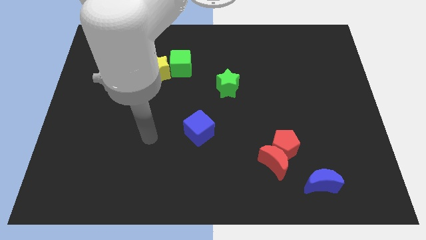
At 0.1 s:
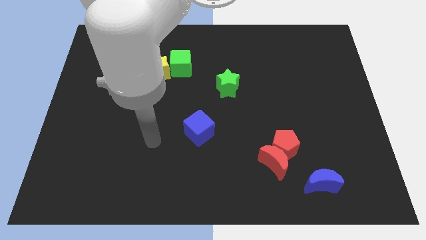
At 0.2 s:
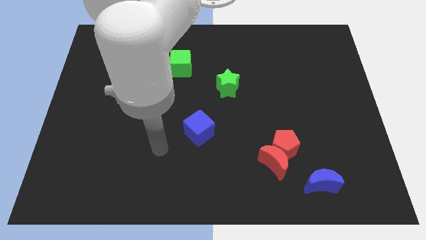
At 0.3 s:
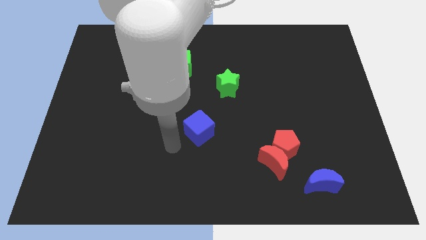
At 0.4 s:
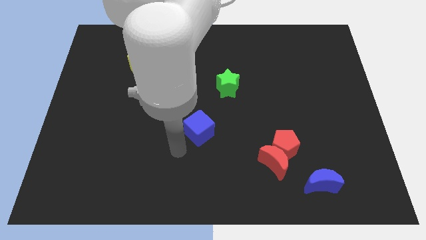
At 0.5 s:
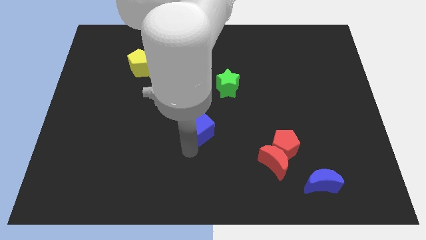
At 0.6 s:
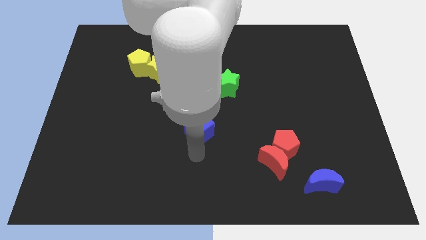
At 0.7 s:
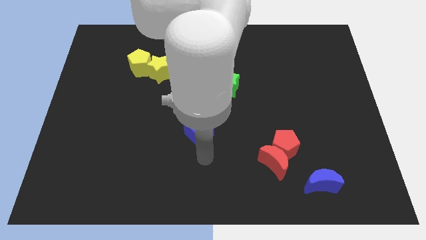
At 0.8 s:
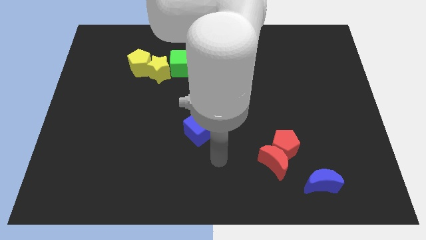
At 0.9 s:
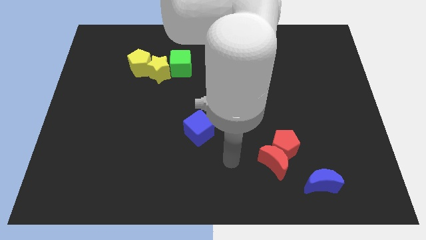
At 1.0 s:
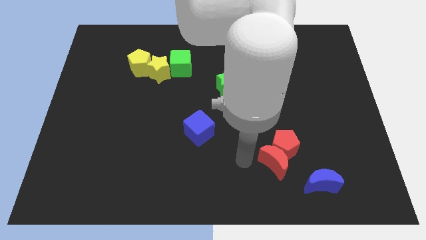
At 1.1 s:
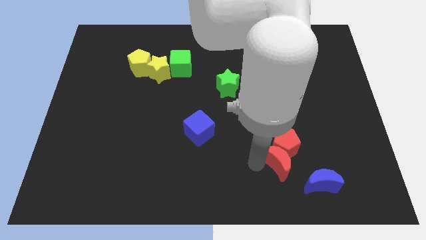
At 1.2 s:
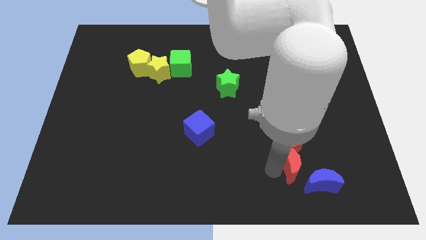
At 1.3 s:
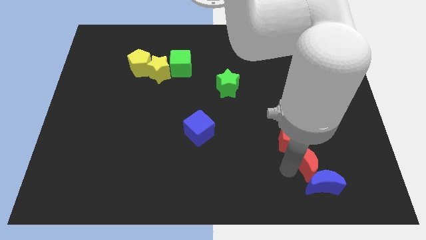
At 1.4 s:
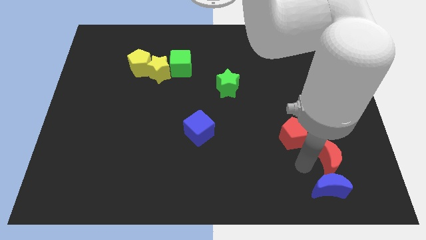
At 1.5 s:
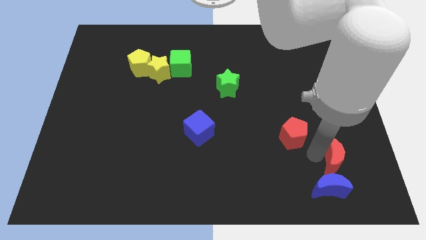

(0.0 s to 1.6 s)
pull the red pentagon apart from the red moon

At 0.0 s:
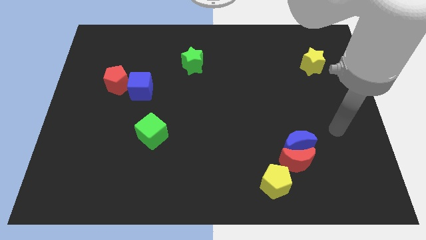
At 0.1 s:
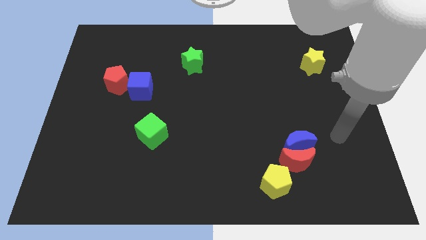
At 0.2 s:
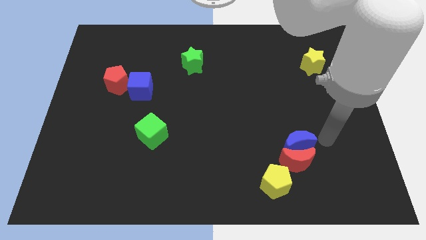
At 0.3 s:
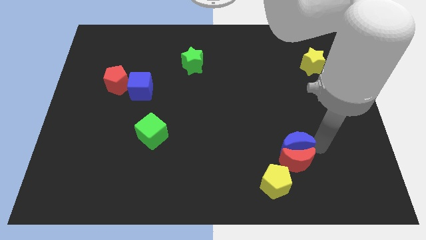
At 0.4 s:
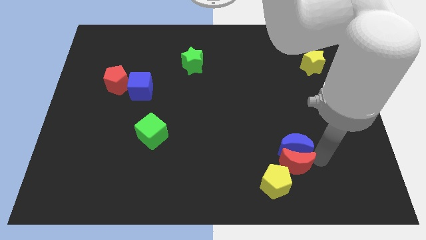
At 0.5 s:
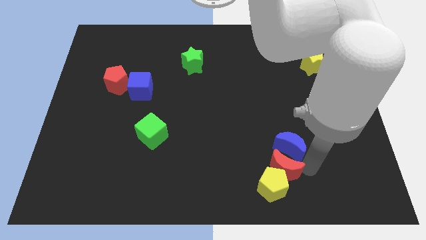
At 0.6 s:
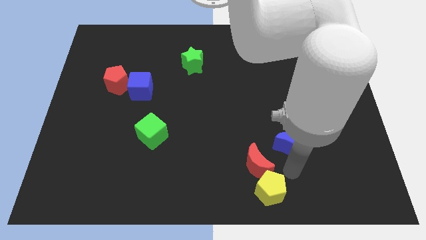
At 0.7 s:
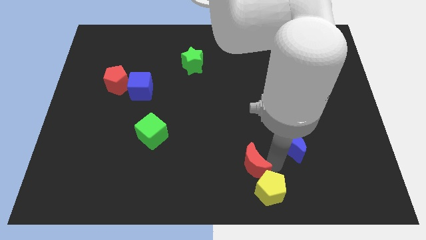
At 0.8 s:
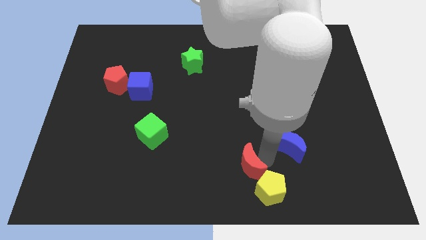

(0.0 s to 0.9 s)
separate the blue moon from the red moon

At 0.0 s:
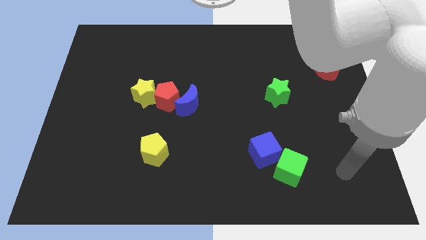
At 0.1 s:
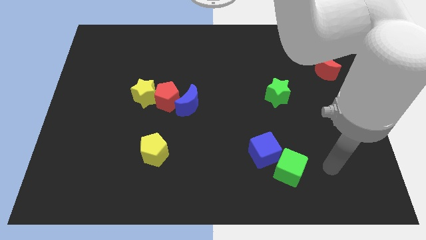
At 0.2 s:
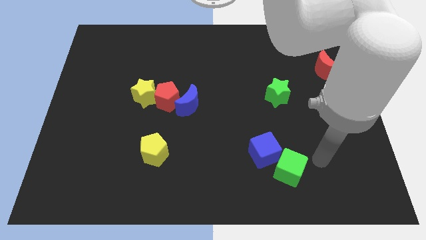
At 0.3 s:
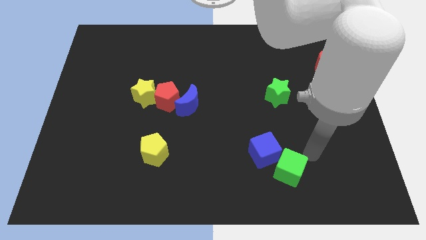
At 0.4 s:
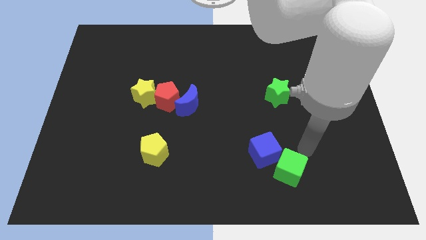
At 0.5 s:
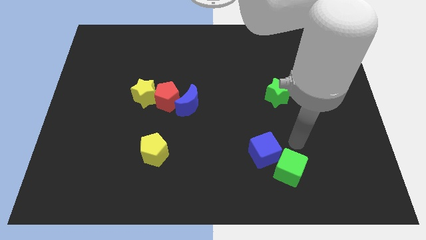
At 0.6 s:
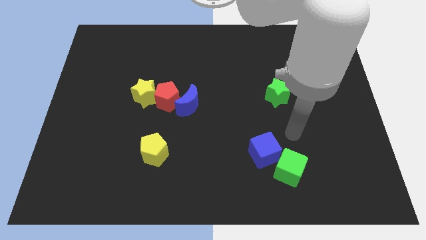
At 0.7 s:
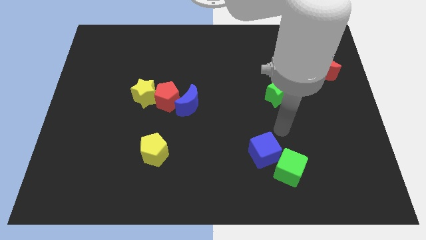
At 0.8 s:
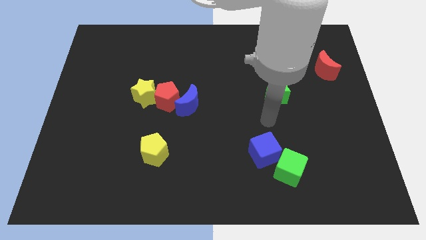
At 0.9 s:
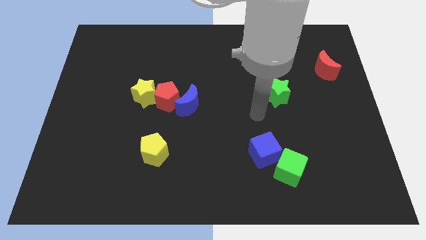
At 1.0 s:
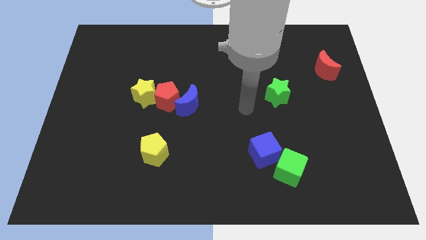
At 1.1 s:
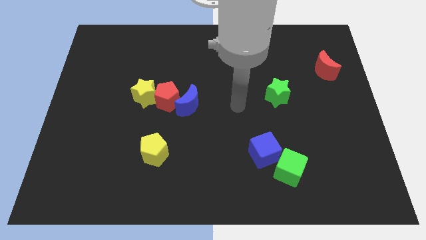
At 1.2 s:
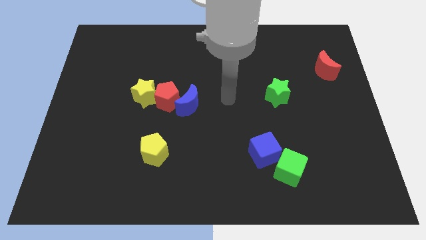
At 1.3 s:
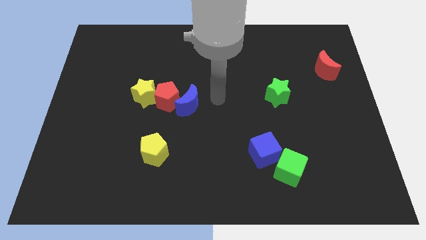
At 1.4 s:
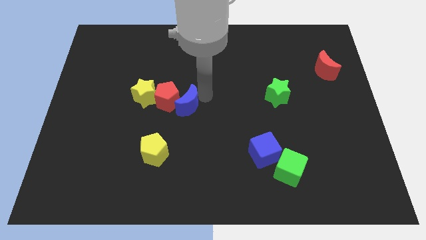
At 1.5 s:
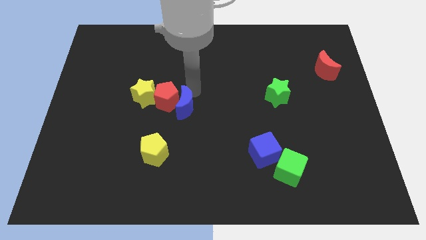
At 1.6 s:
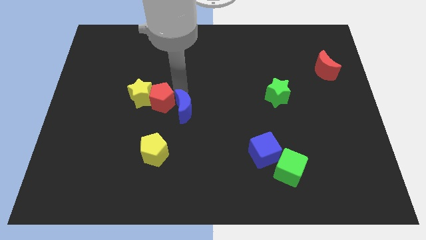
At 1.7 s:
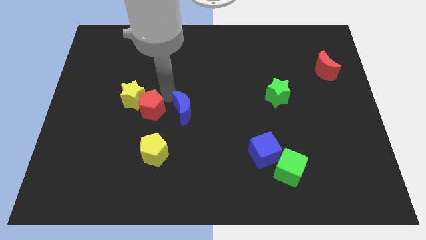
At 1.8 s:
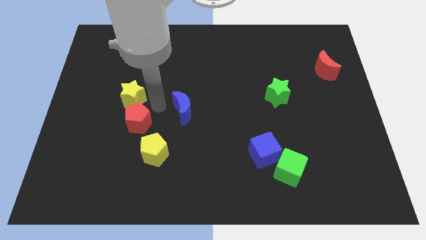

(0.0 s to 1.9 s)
pull the blue moon apart from the red pentagon

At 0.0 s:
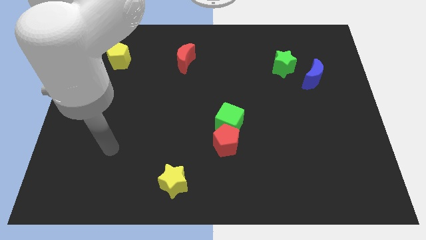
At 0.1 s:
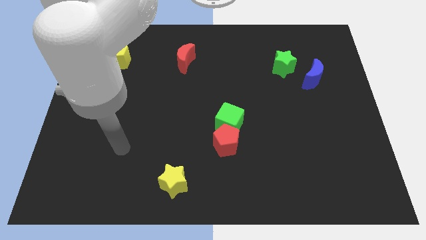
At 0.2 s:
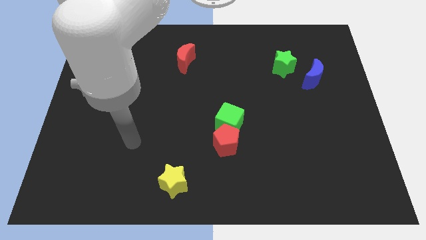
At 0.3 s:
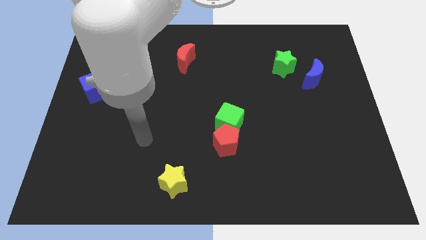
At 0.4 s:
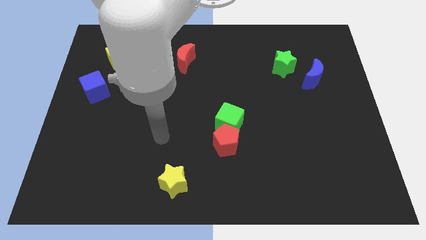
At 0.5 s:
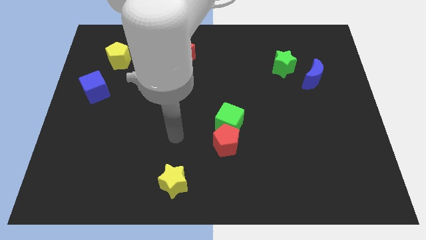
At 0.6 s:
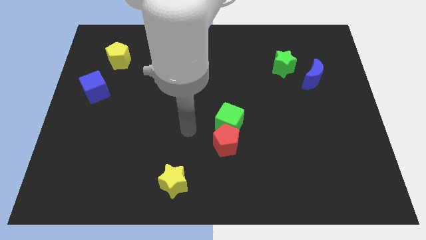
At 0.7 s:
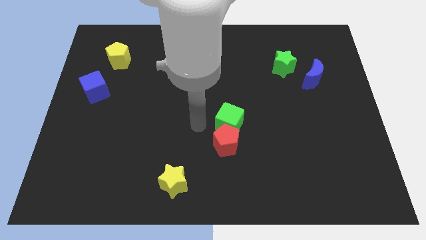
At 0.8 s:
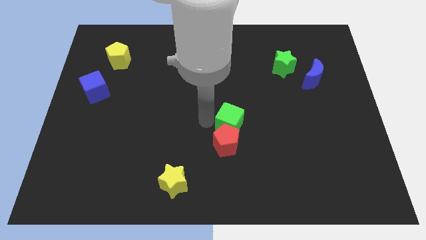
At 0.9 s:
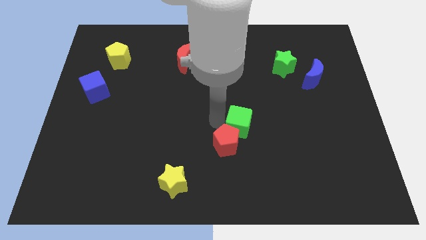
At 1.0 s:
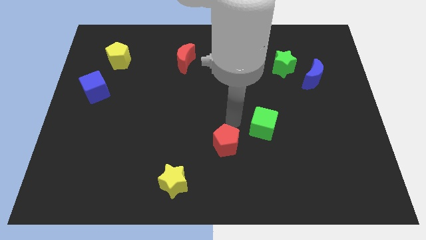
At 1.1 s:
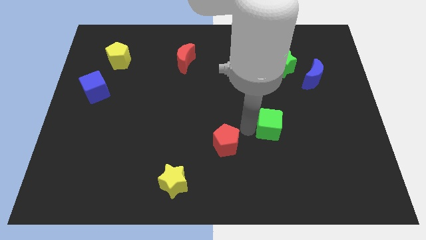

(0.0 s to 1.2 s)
pull the red pentagon apart from the green cube

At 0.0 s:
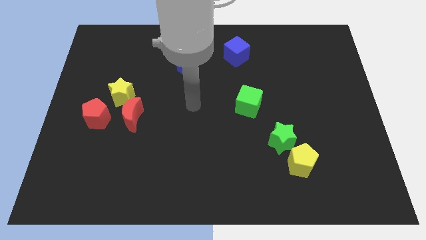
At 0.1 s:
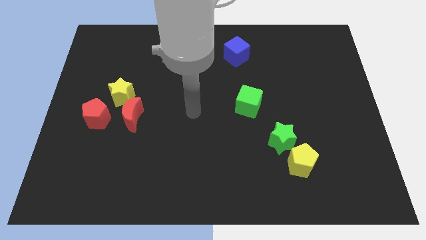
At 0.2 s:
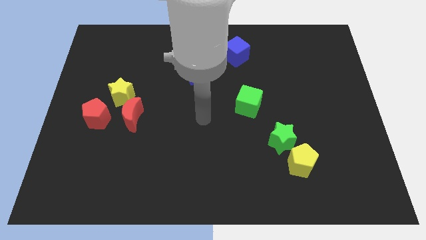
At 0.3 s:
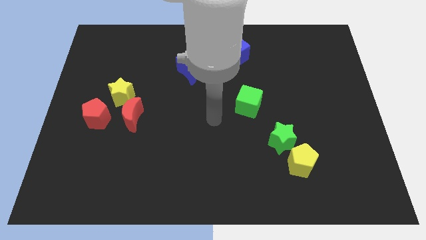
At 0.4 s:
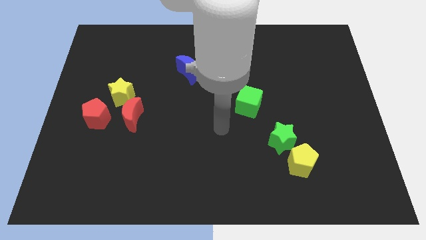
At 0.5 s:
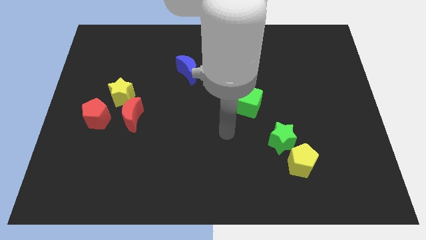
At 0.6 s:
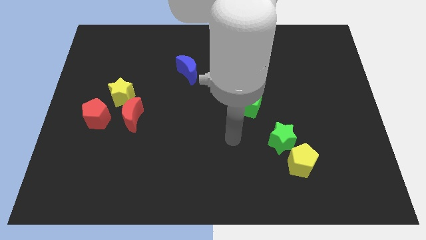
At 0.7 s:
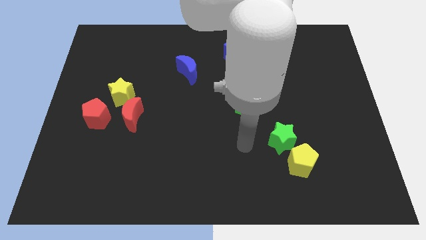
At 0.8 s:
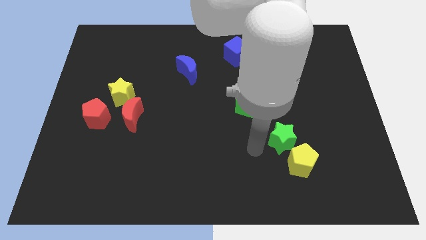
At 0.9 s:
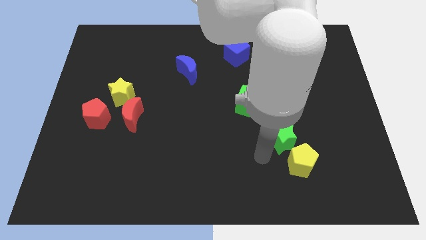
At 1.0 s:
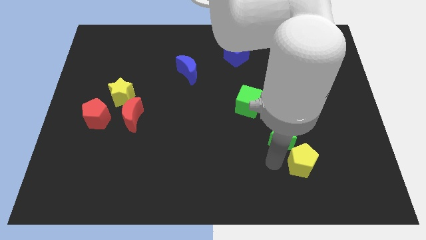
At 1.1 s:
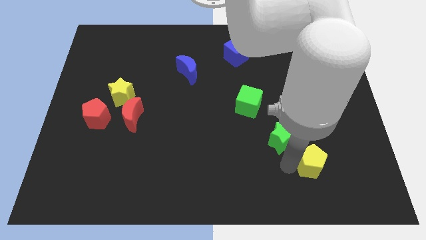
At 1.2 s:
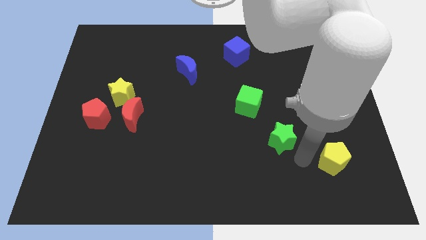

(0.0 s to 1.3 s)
separate the green star from the yellow pentagon

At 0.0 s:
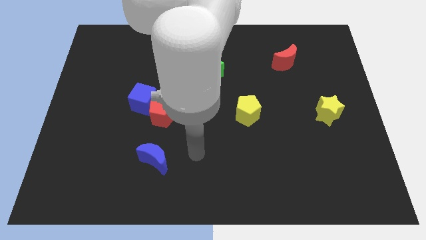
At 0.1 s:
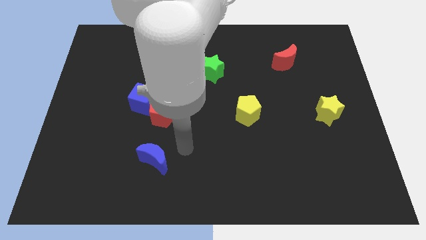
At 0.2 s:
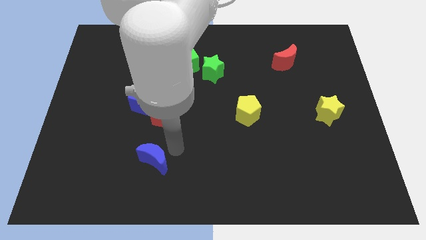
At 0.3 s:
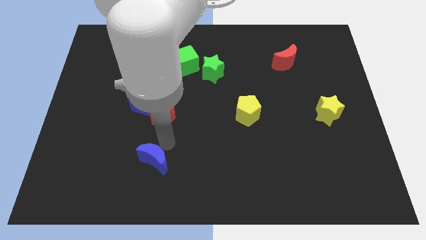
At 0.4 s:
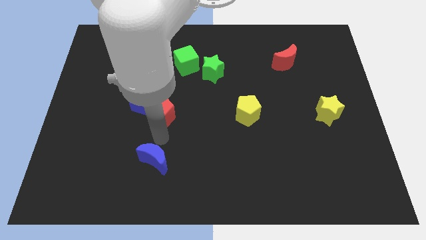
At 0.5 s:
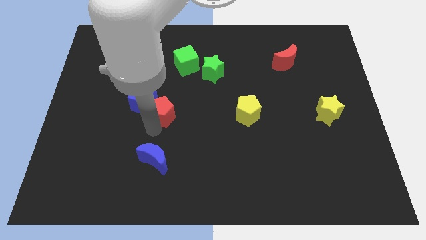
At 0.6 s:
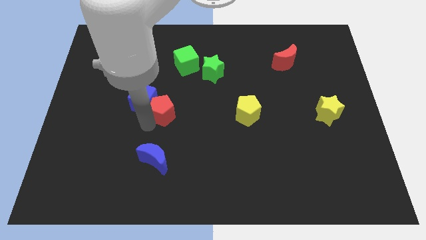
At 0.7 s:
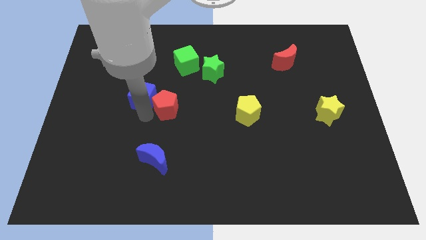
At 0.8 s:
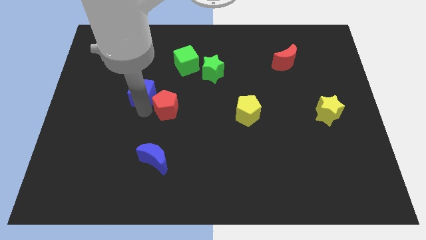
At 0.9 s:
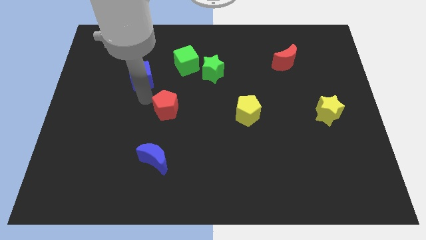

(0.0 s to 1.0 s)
pull the red pentagon apart from the blue cube

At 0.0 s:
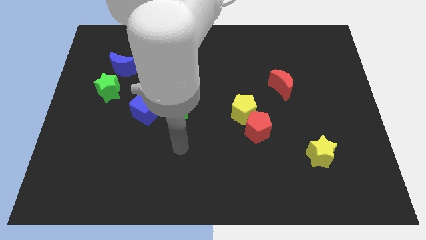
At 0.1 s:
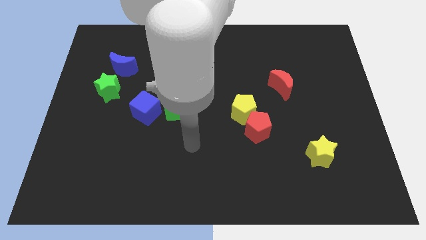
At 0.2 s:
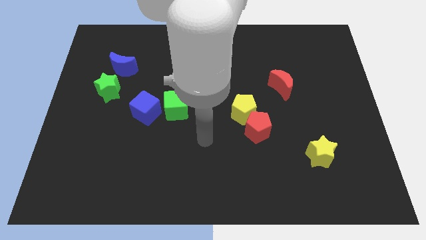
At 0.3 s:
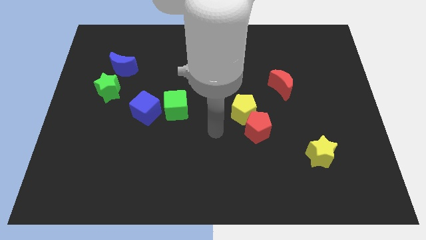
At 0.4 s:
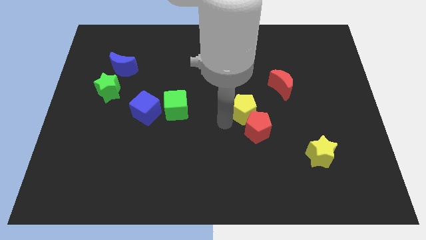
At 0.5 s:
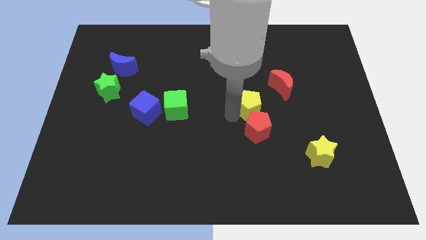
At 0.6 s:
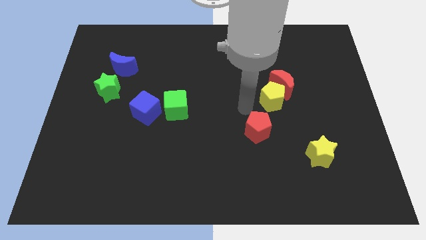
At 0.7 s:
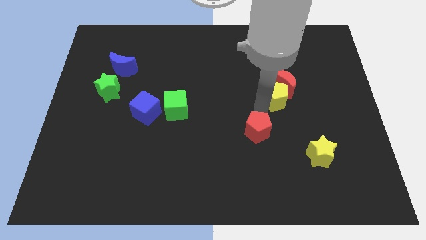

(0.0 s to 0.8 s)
pull the red pentagon apart from the yellow pentagon

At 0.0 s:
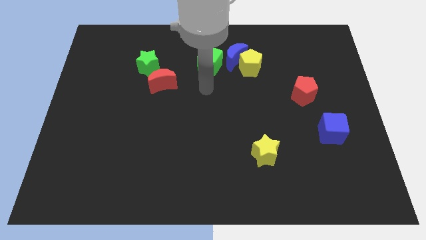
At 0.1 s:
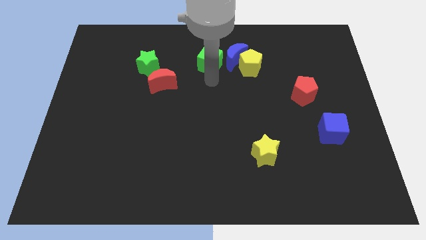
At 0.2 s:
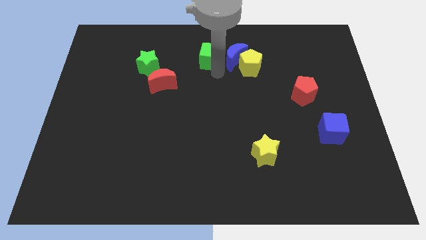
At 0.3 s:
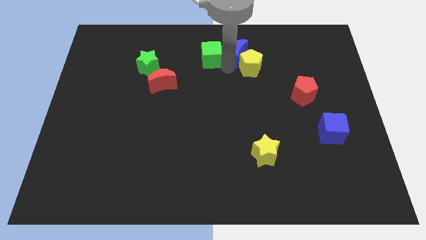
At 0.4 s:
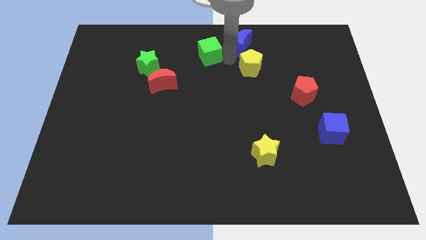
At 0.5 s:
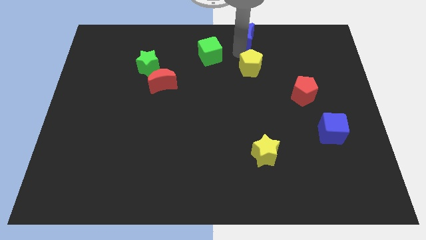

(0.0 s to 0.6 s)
move the yellow pentagon away from the blue moon
